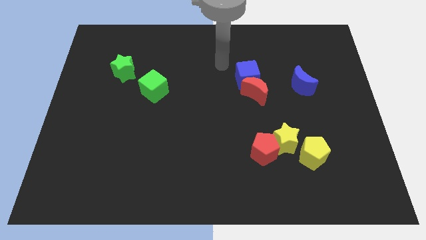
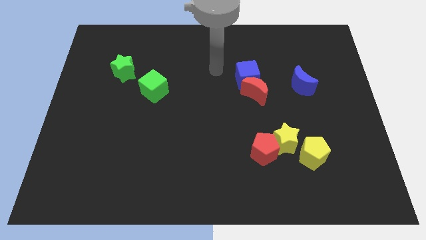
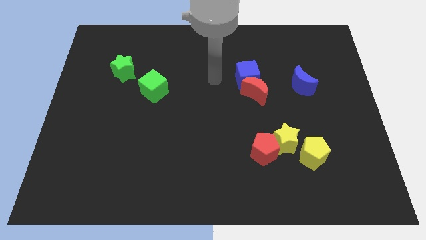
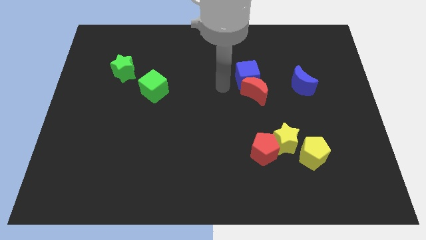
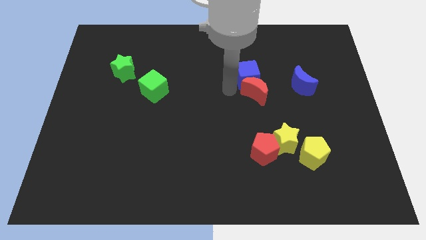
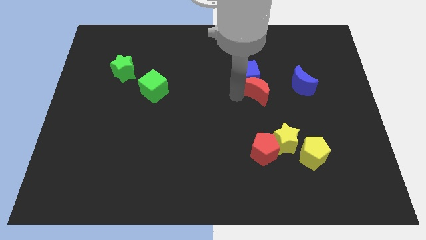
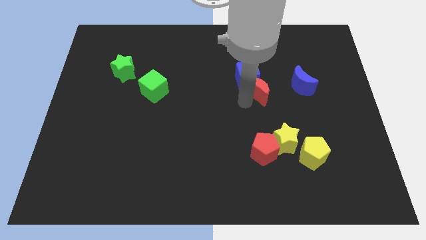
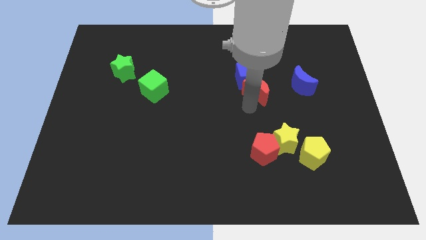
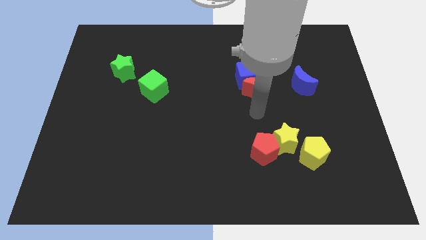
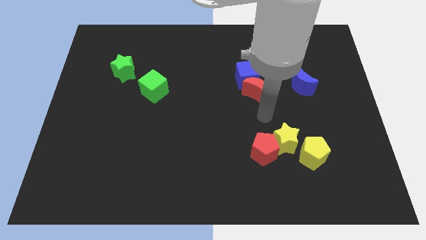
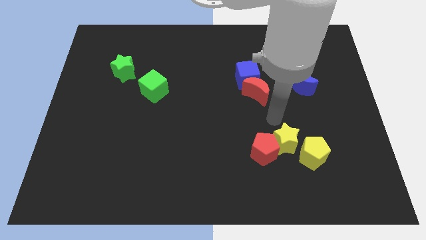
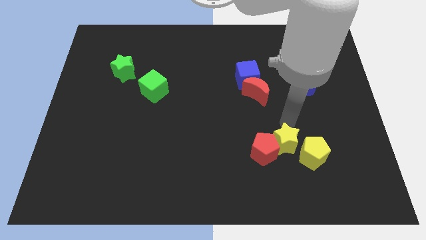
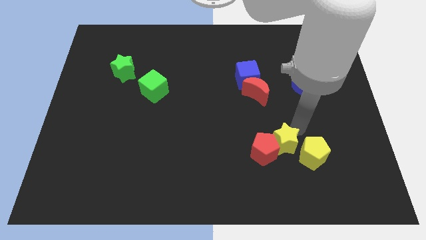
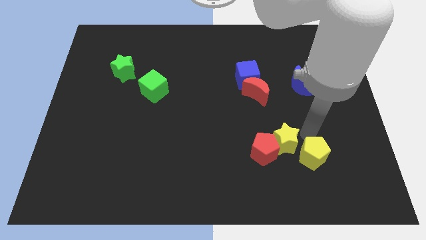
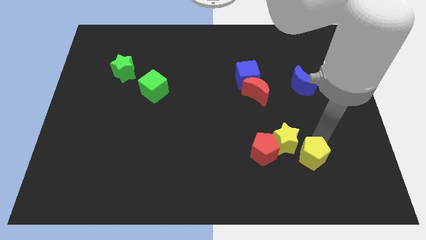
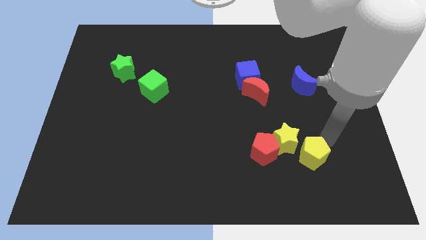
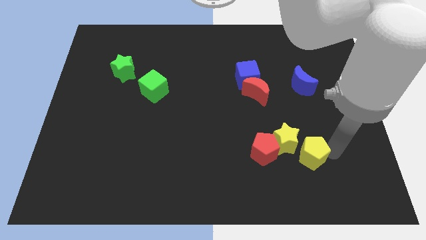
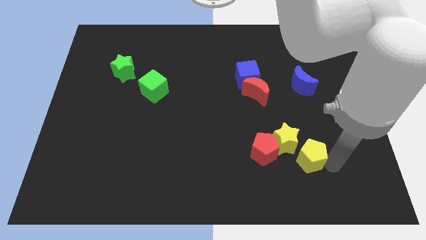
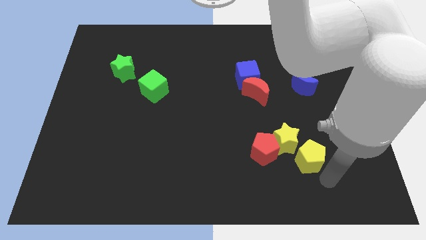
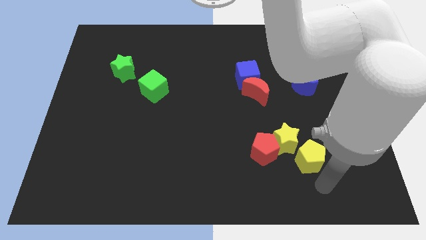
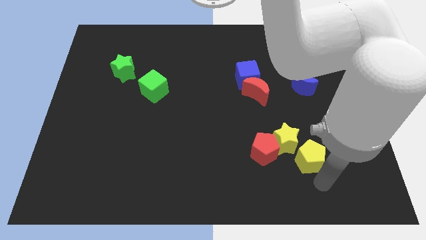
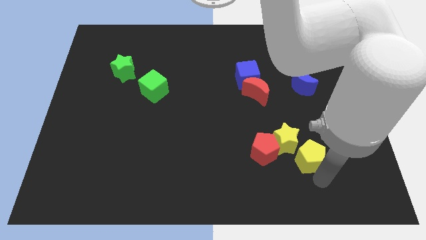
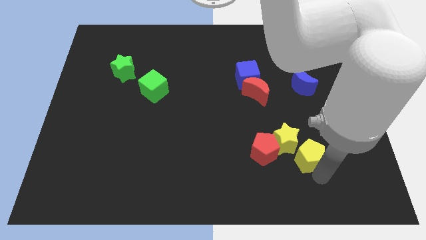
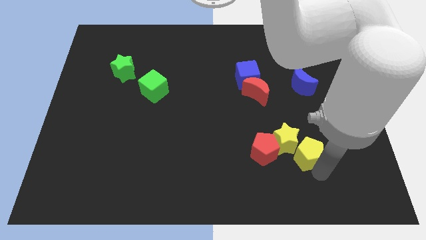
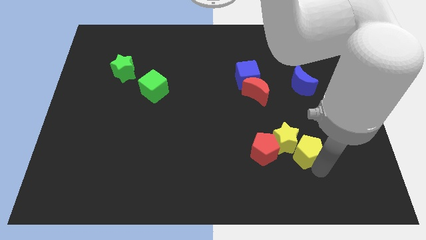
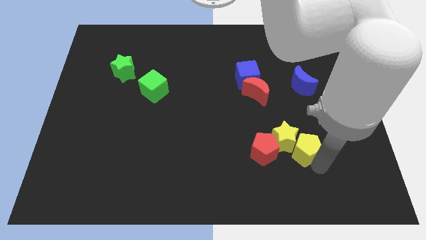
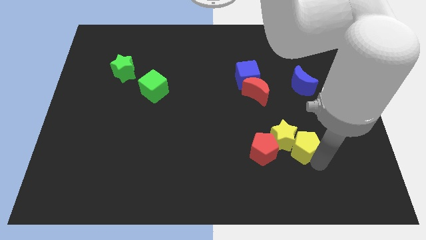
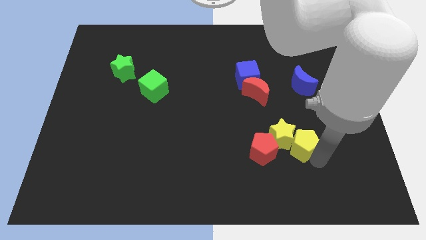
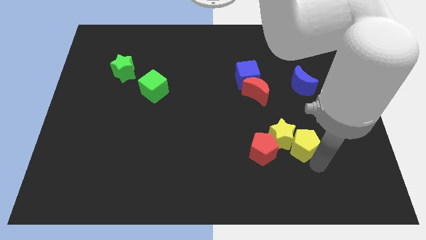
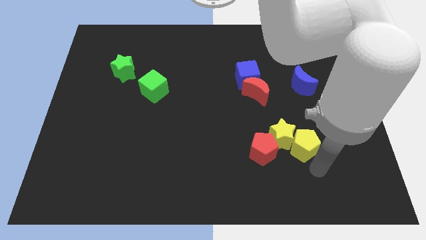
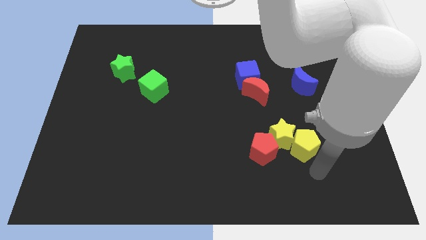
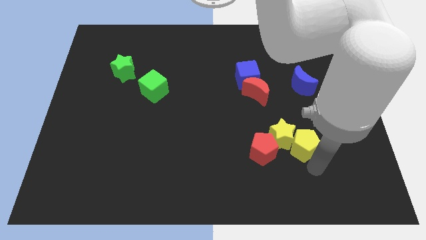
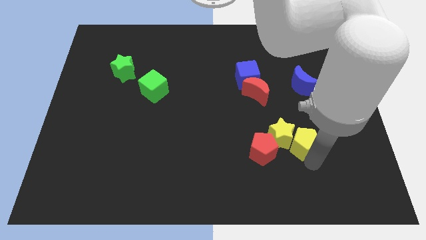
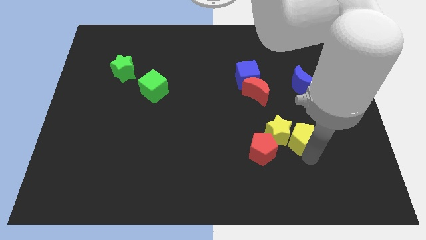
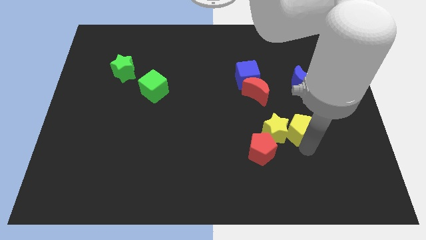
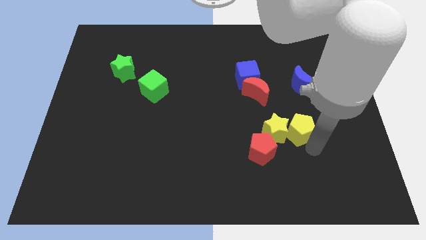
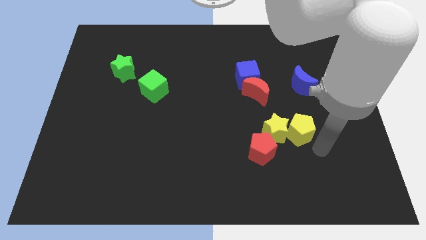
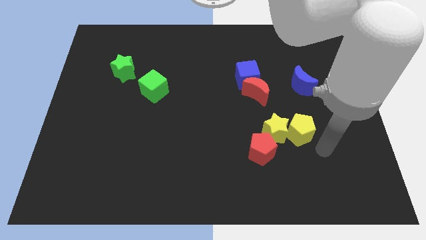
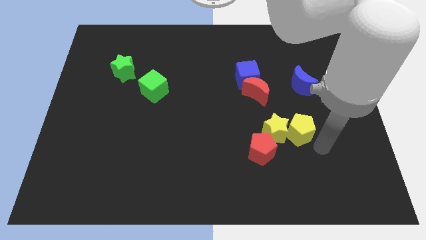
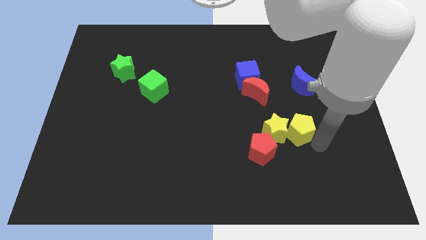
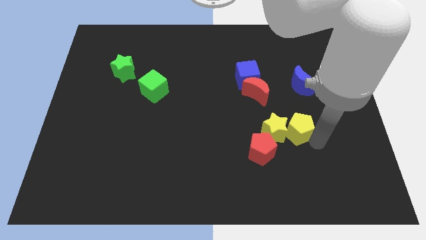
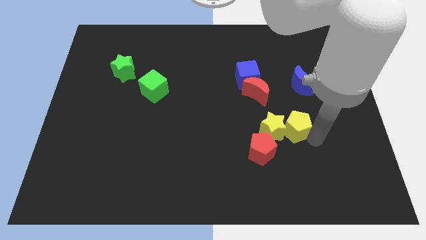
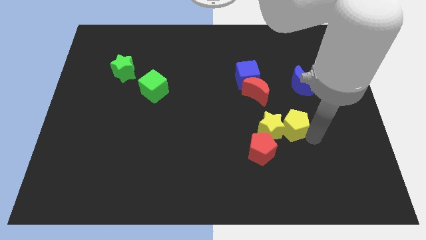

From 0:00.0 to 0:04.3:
slightly move the yellow pentagon diagonally up and left

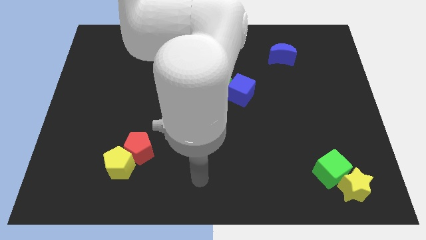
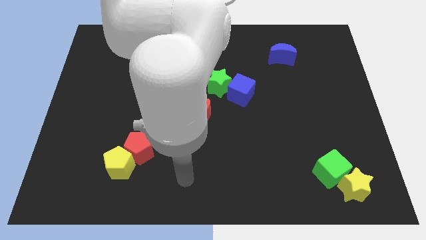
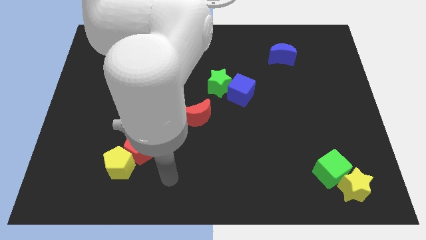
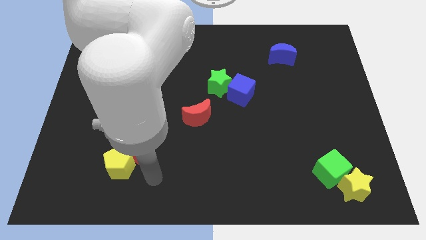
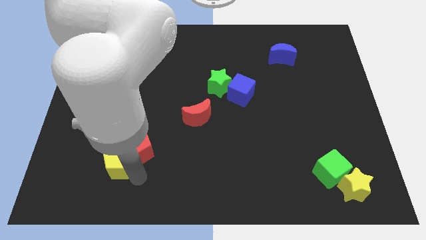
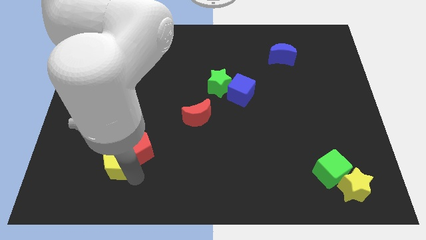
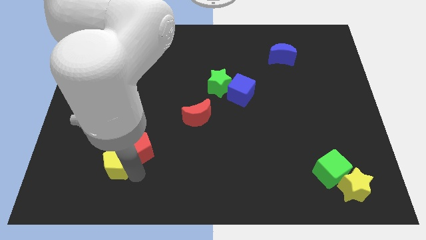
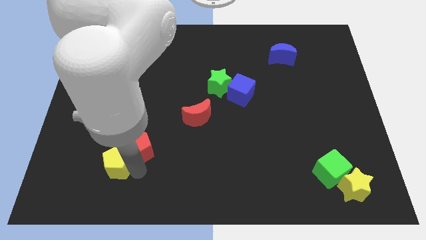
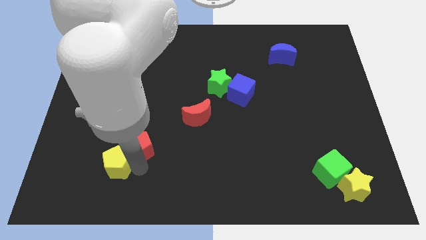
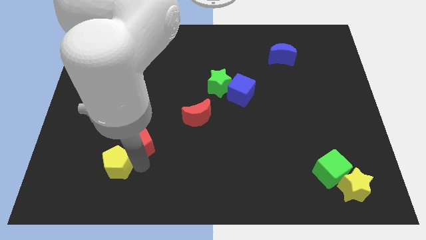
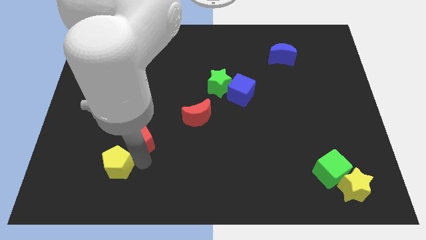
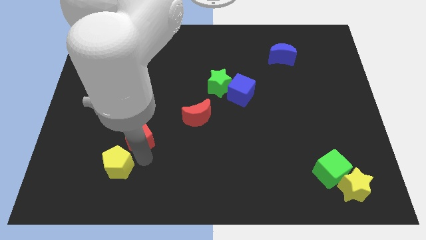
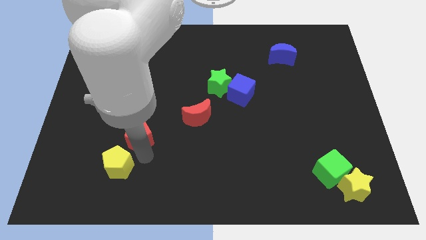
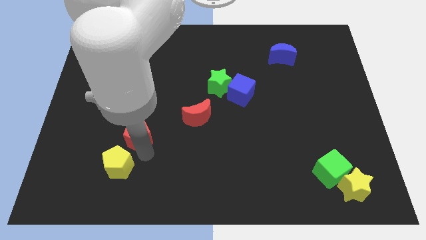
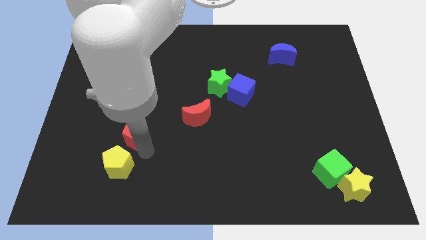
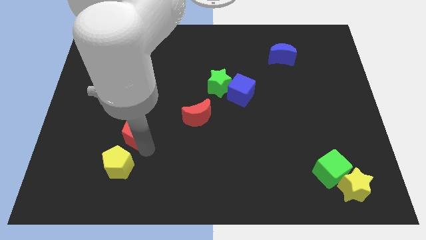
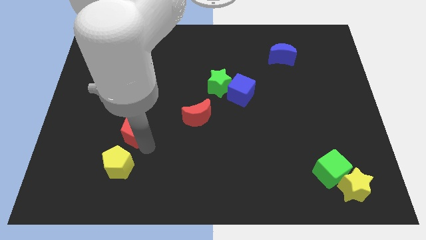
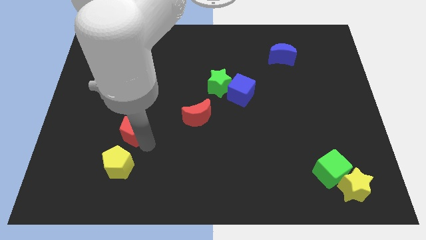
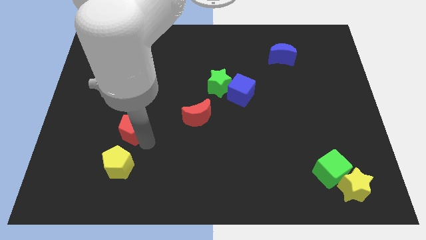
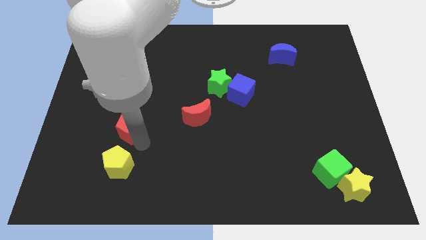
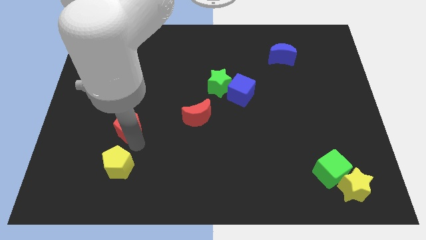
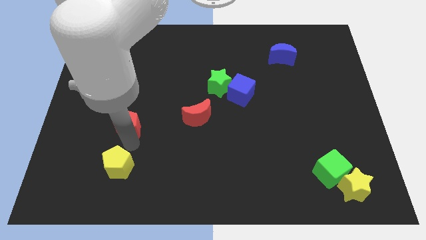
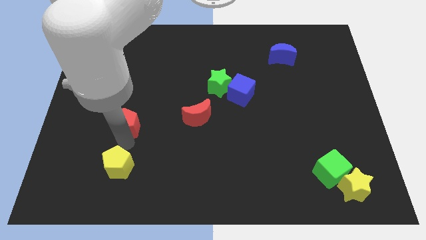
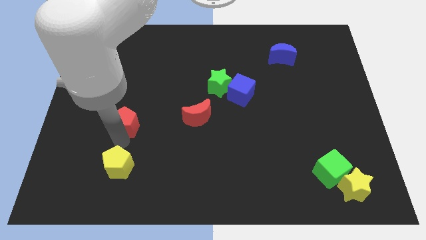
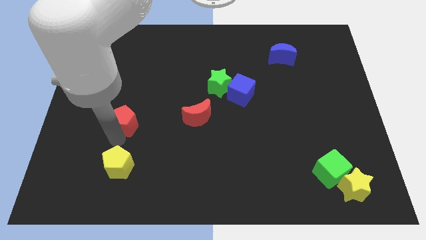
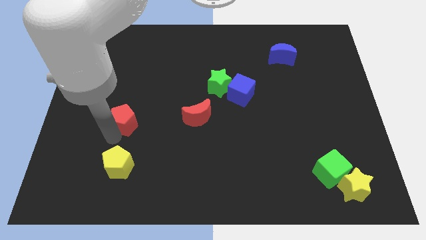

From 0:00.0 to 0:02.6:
slide the red pentagon upwards somewhat

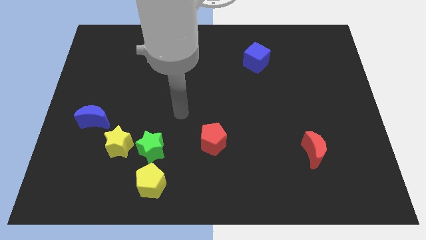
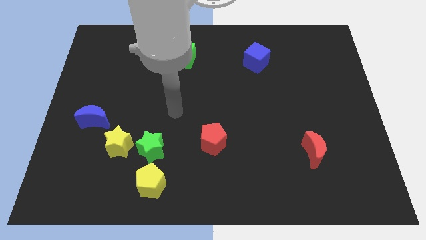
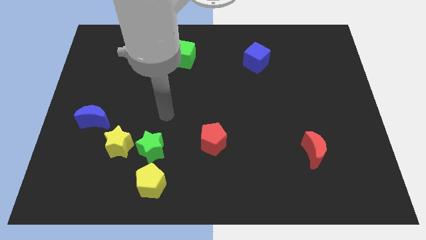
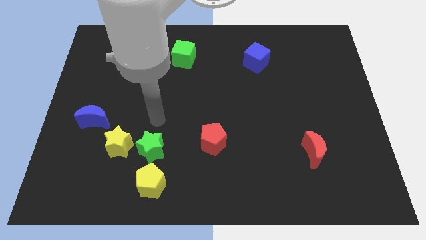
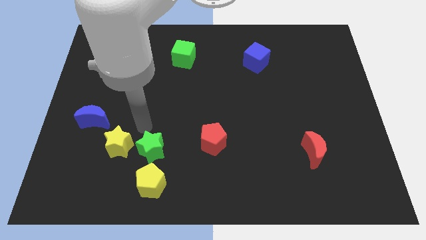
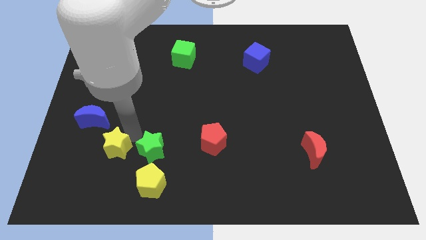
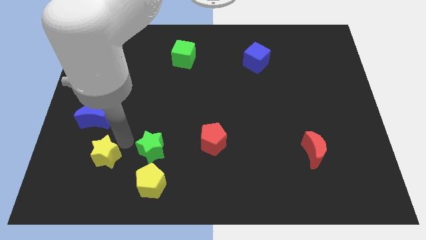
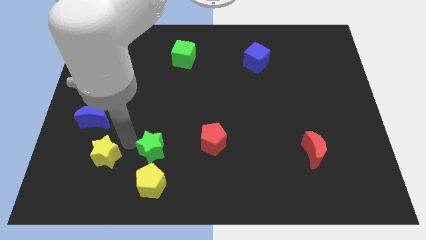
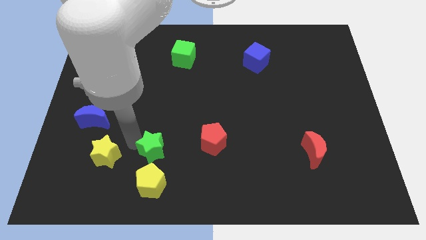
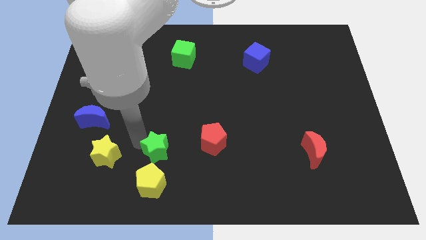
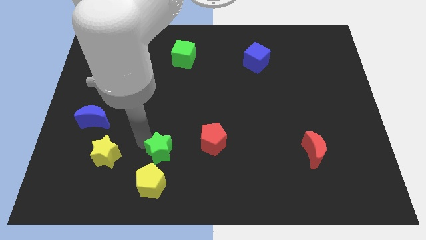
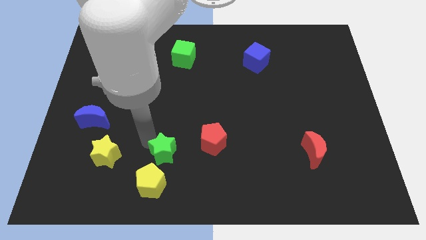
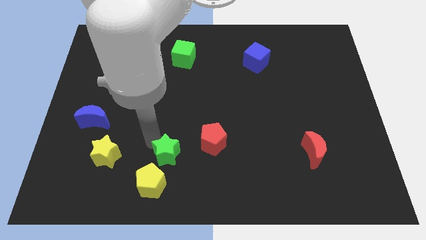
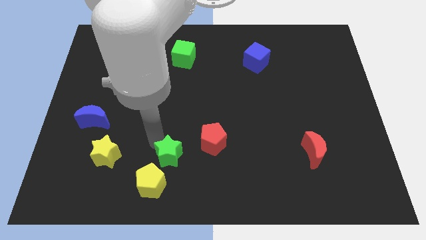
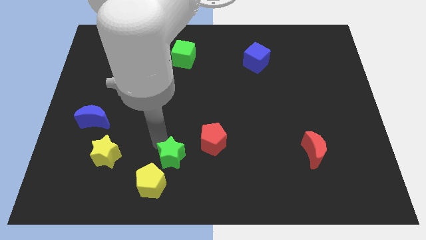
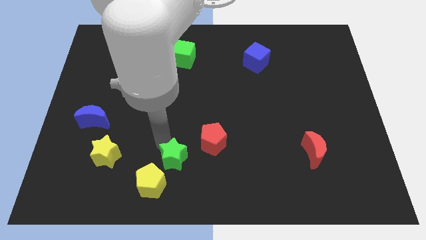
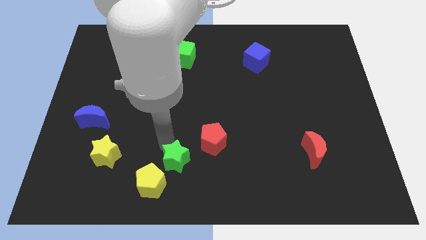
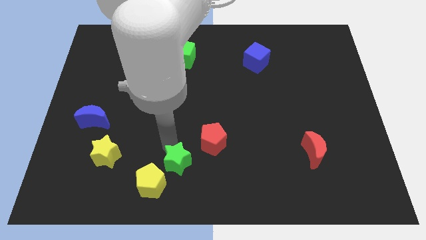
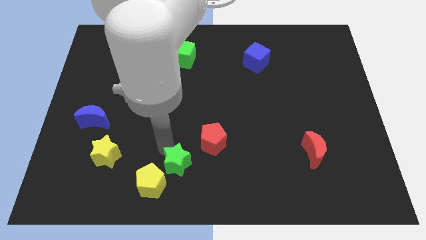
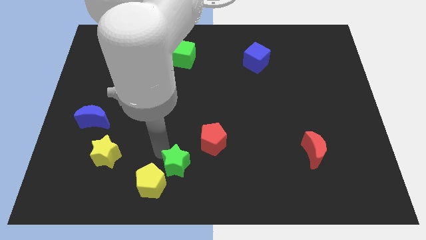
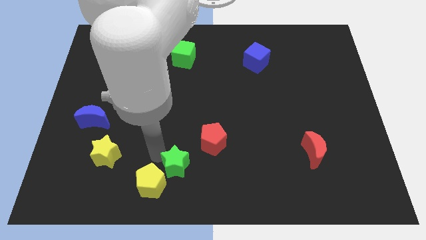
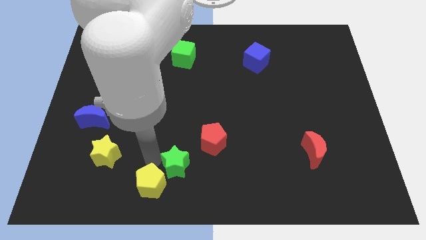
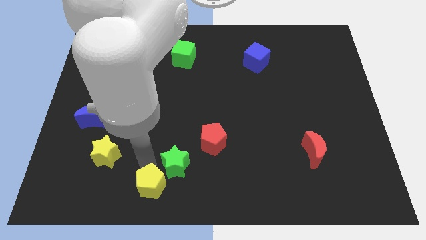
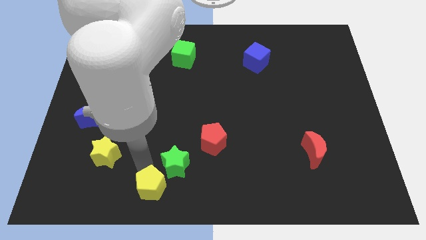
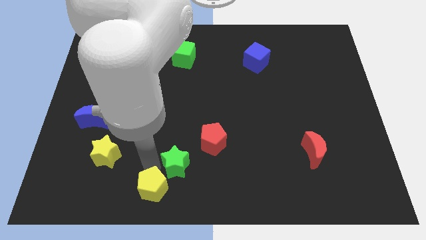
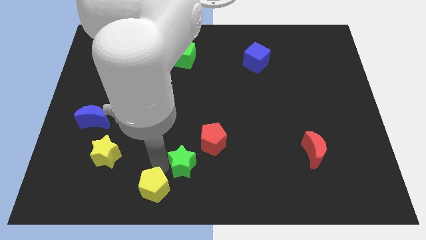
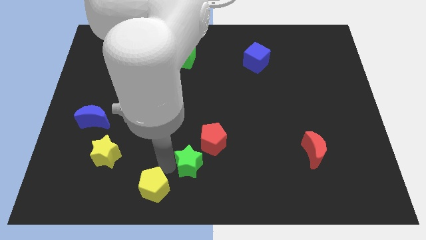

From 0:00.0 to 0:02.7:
slightly move the green star to the right
